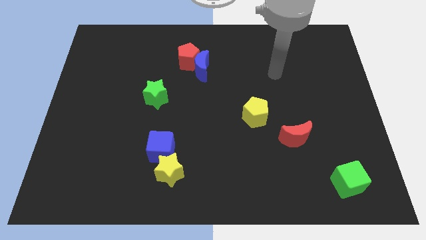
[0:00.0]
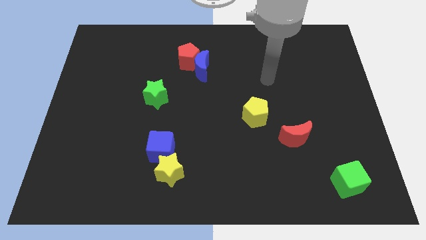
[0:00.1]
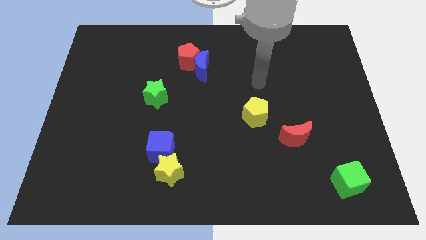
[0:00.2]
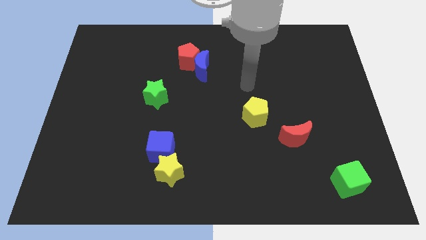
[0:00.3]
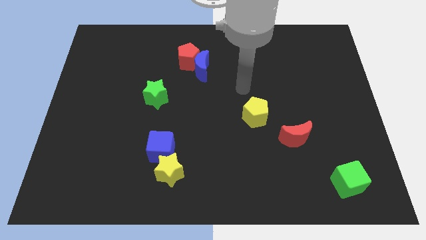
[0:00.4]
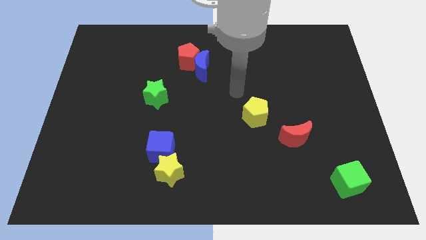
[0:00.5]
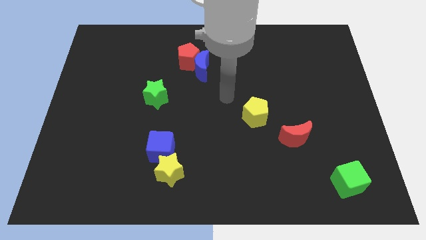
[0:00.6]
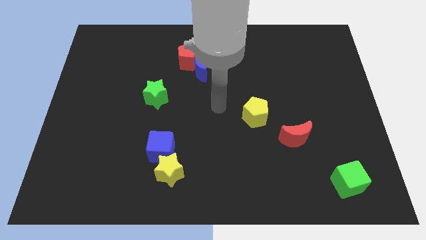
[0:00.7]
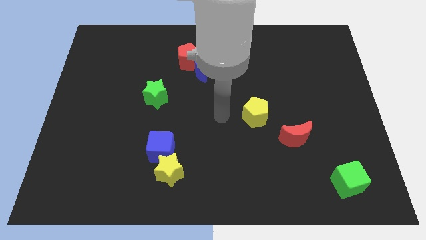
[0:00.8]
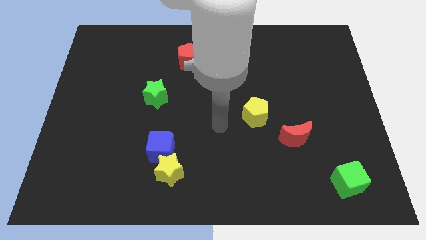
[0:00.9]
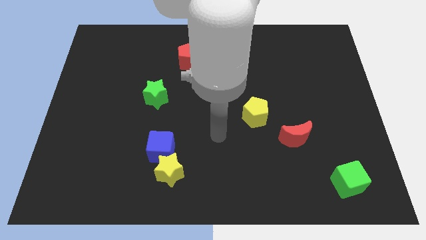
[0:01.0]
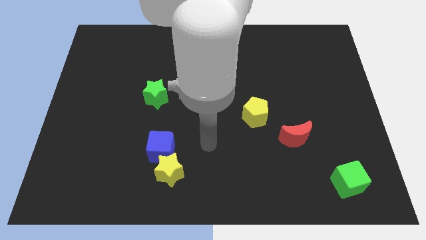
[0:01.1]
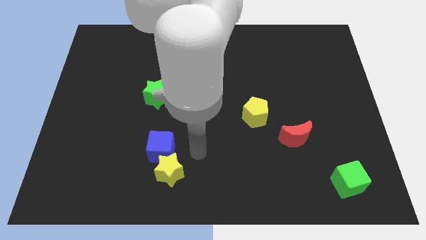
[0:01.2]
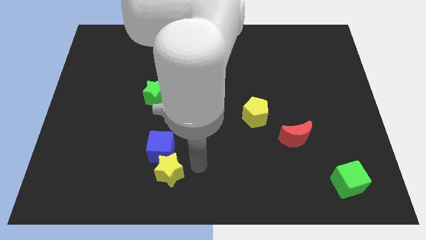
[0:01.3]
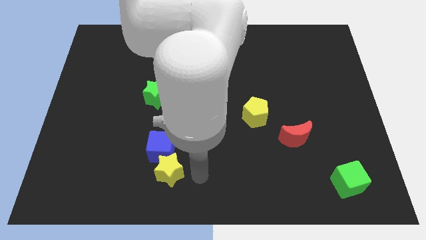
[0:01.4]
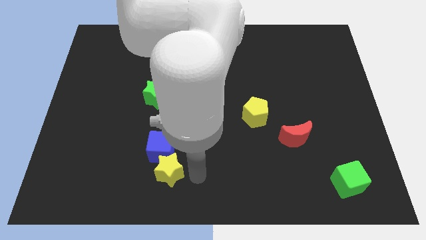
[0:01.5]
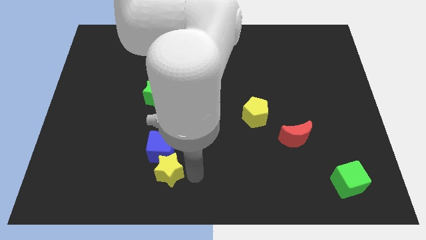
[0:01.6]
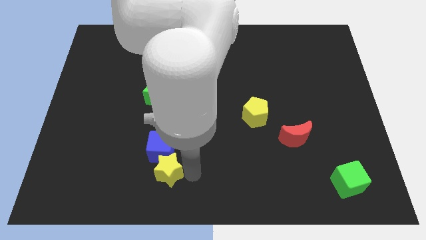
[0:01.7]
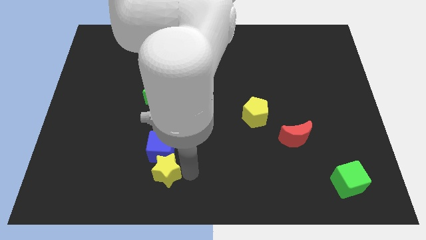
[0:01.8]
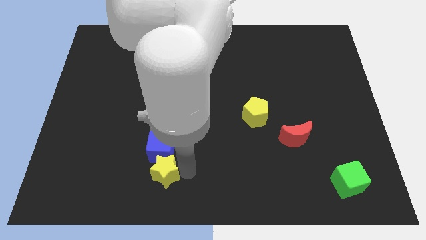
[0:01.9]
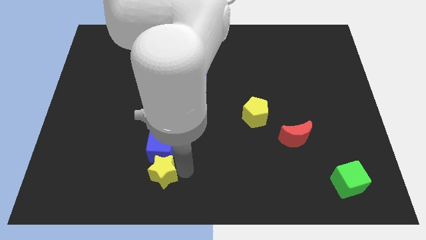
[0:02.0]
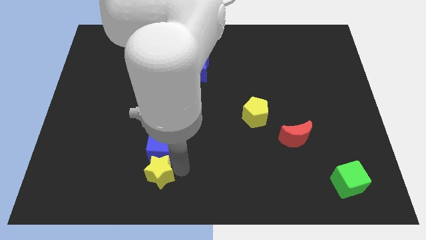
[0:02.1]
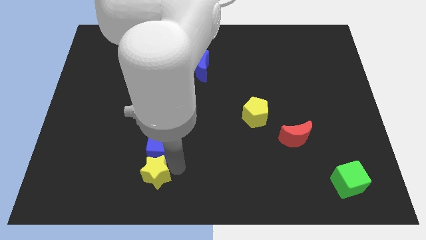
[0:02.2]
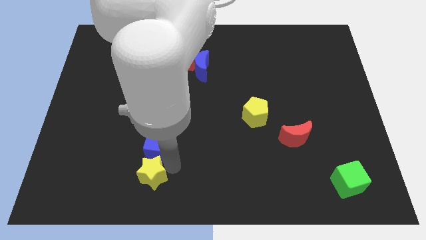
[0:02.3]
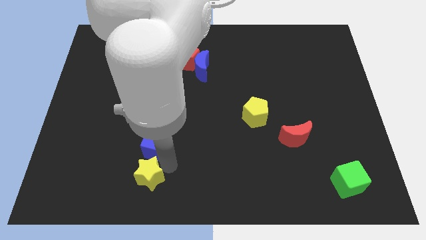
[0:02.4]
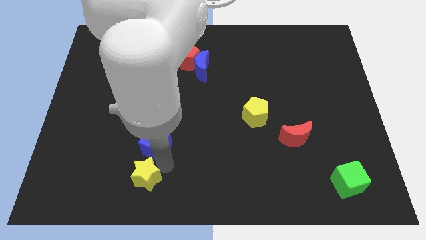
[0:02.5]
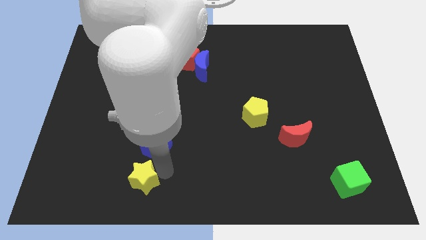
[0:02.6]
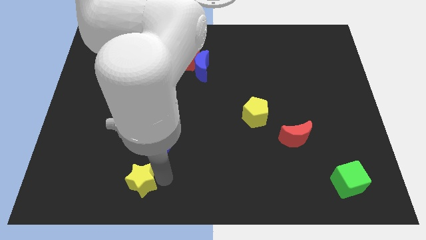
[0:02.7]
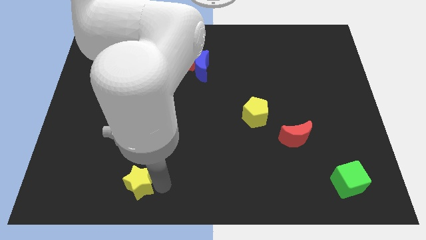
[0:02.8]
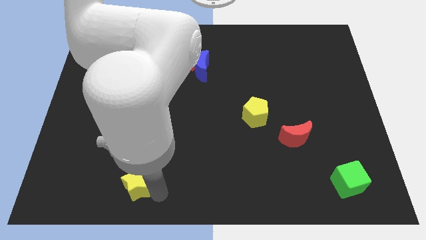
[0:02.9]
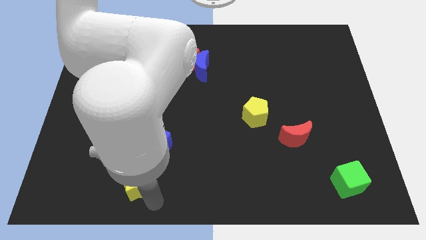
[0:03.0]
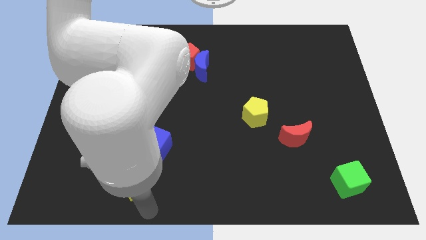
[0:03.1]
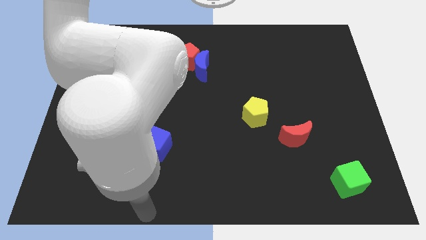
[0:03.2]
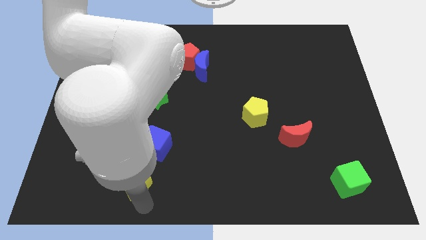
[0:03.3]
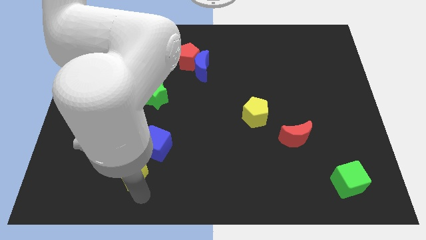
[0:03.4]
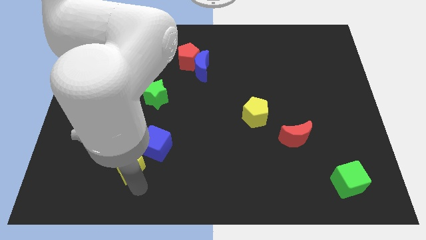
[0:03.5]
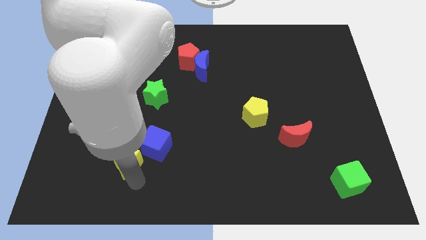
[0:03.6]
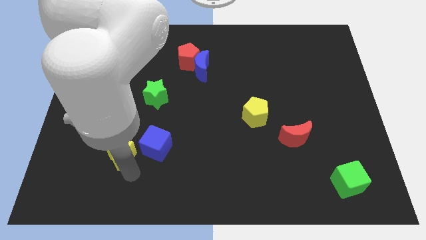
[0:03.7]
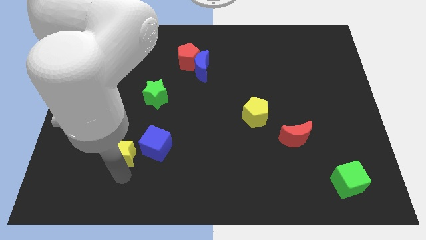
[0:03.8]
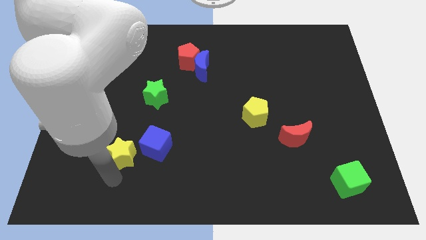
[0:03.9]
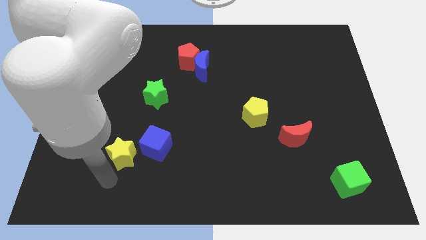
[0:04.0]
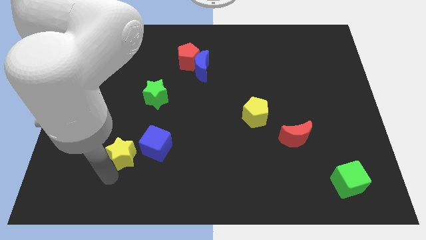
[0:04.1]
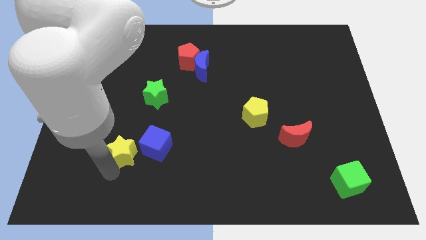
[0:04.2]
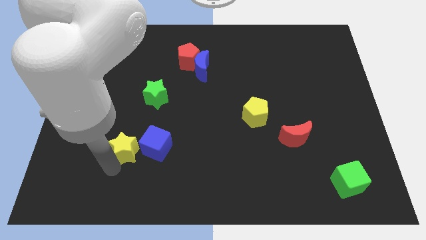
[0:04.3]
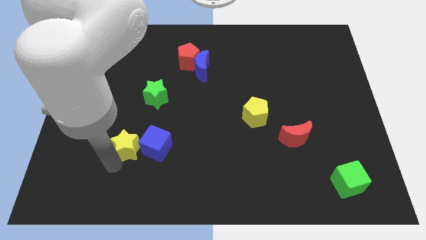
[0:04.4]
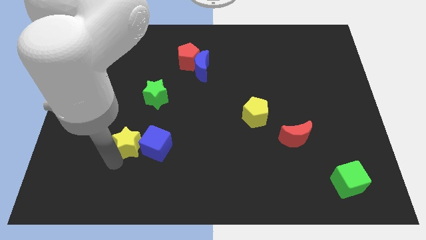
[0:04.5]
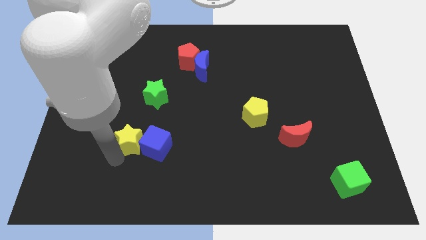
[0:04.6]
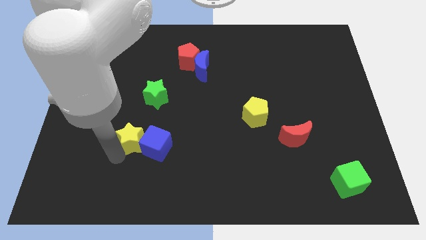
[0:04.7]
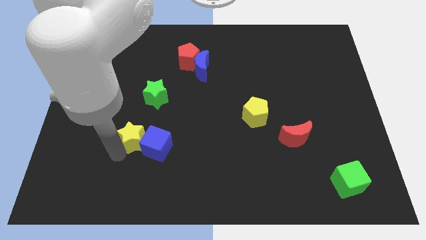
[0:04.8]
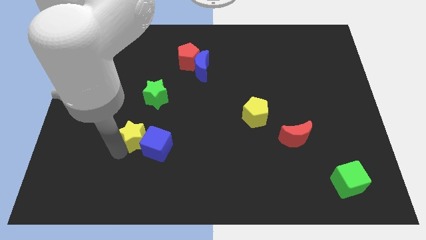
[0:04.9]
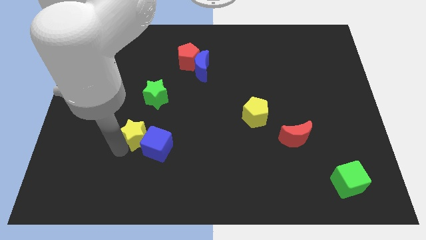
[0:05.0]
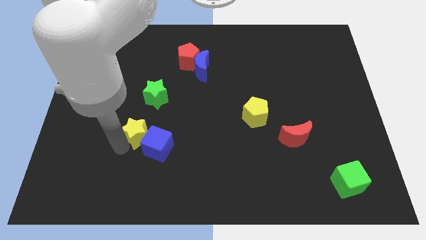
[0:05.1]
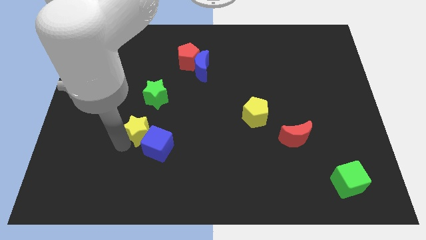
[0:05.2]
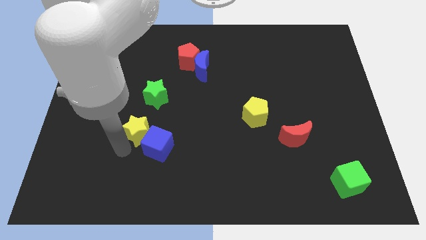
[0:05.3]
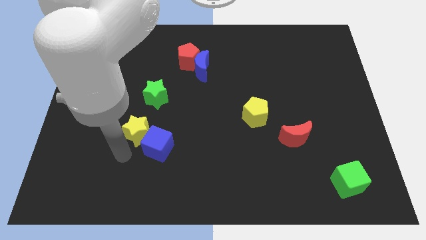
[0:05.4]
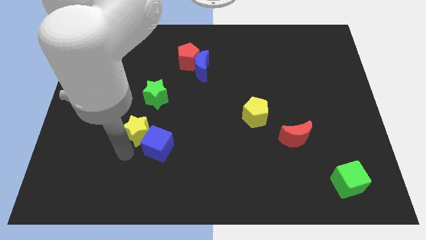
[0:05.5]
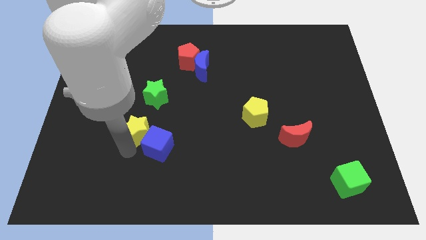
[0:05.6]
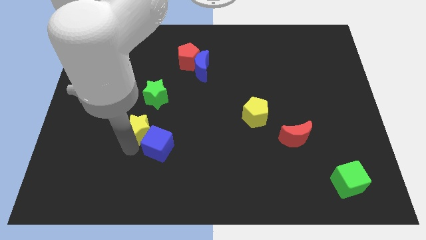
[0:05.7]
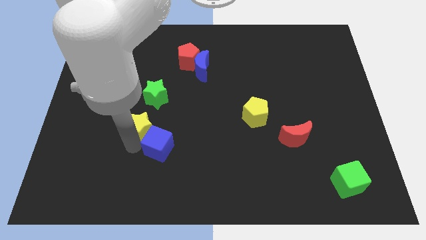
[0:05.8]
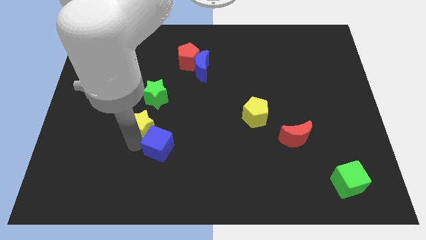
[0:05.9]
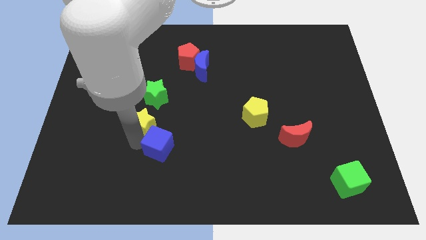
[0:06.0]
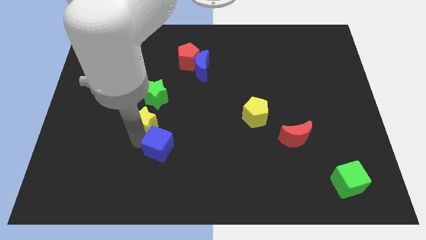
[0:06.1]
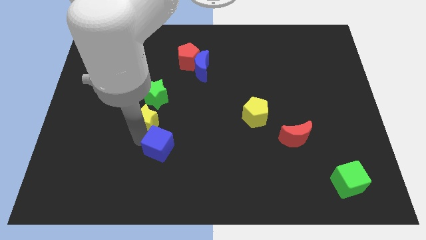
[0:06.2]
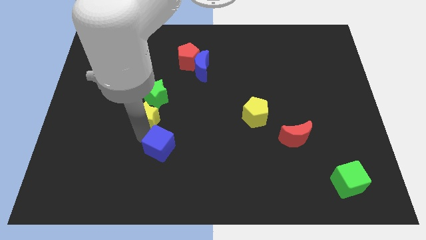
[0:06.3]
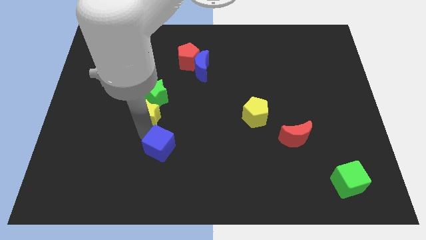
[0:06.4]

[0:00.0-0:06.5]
move the yellow star close to the green star
